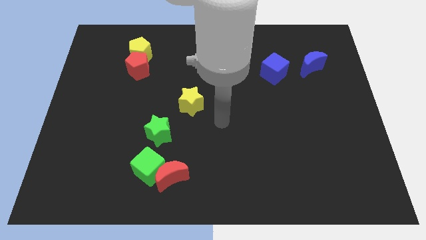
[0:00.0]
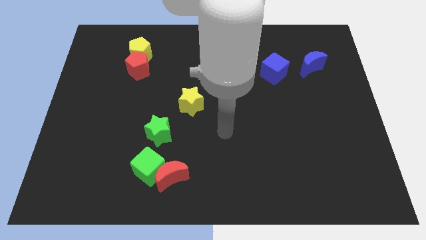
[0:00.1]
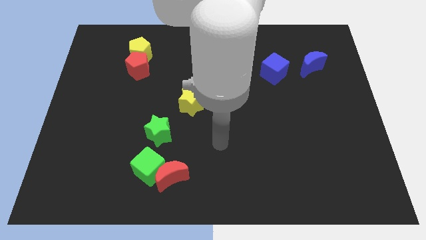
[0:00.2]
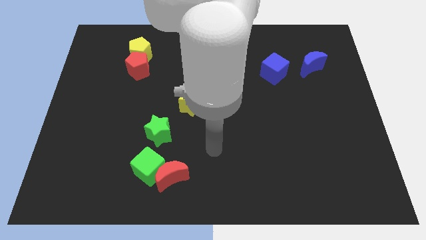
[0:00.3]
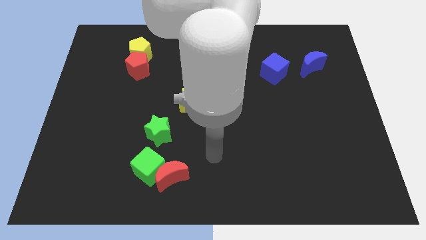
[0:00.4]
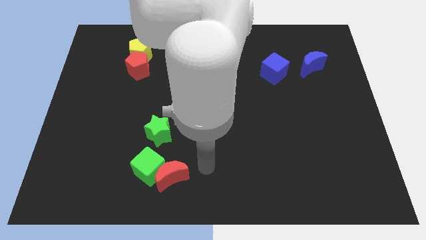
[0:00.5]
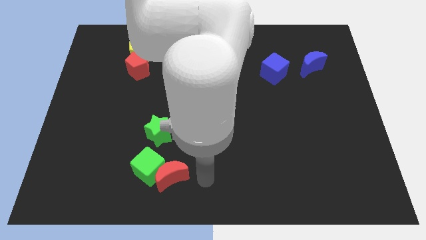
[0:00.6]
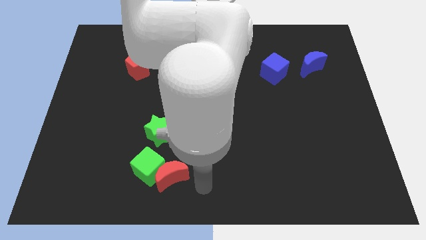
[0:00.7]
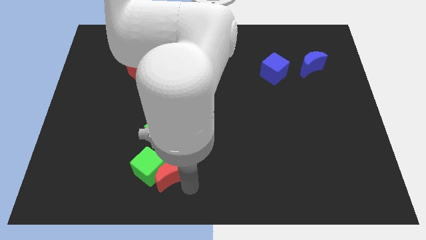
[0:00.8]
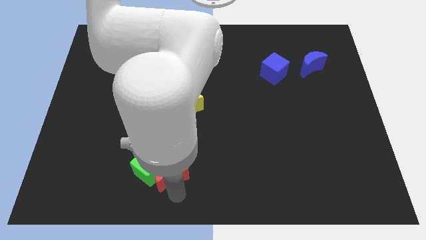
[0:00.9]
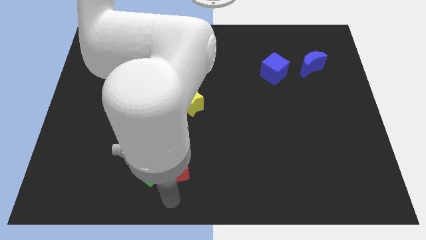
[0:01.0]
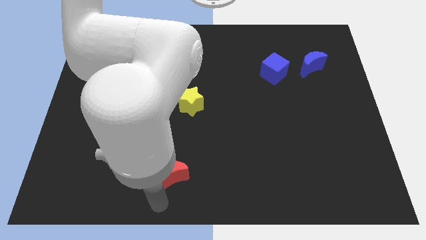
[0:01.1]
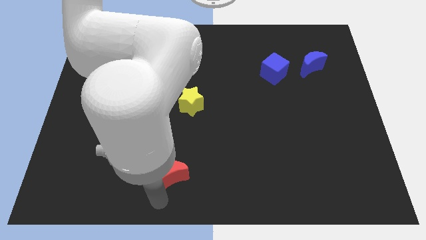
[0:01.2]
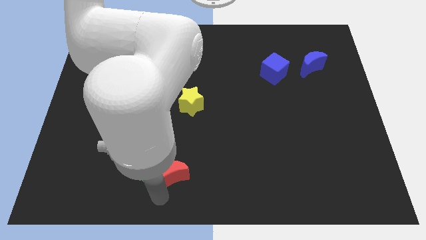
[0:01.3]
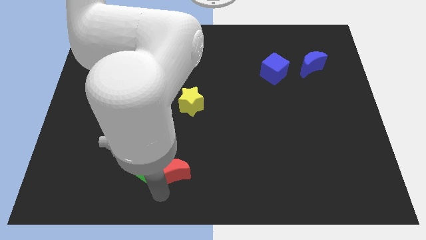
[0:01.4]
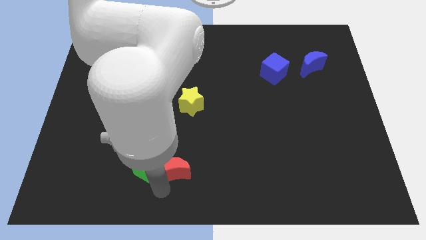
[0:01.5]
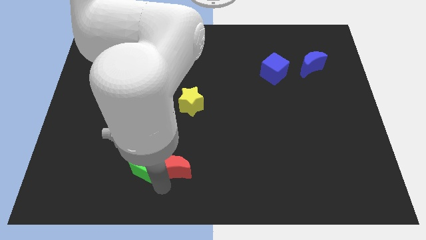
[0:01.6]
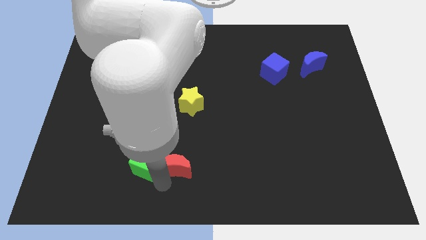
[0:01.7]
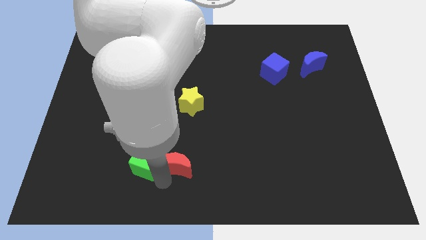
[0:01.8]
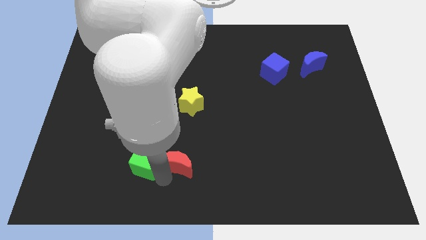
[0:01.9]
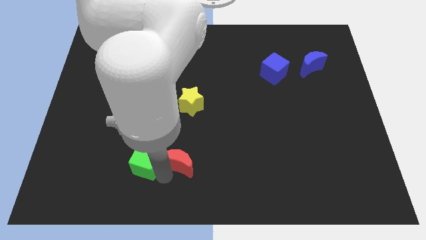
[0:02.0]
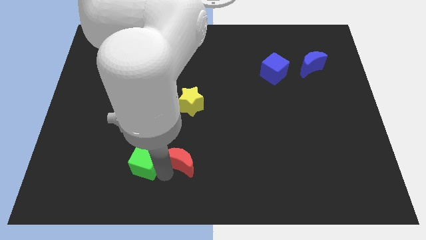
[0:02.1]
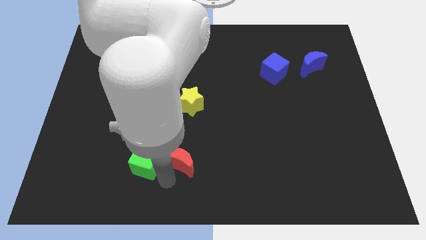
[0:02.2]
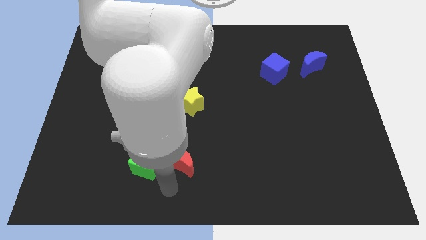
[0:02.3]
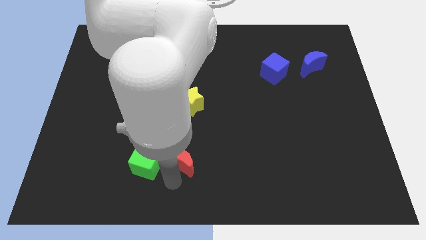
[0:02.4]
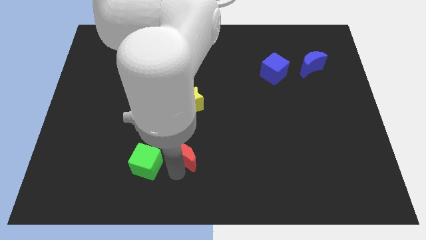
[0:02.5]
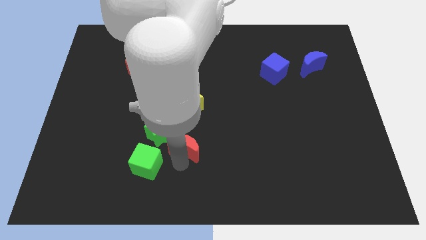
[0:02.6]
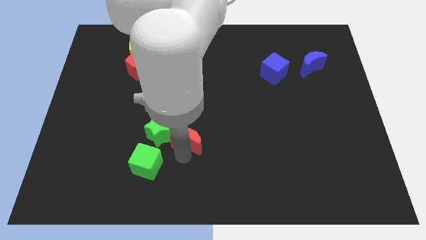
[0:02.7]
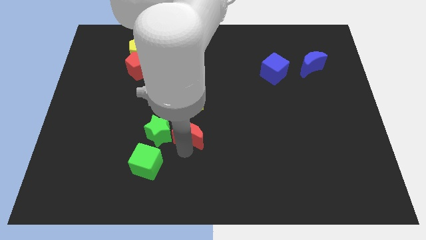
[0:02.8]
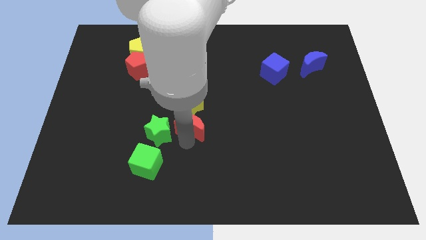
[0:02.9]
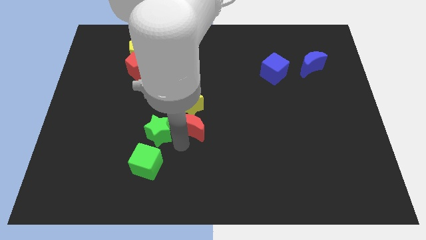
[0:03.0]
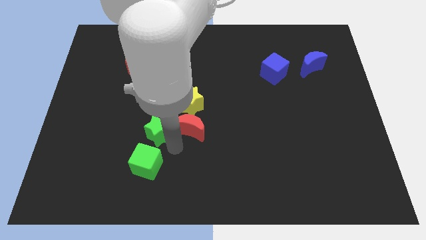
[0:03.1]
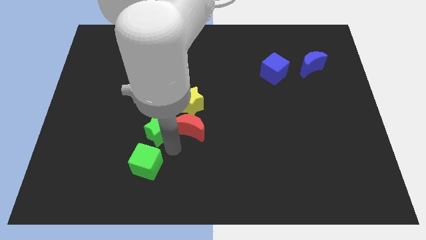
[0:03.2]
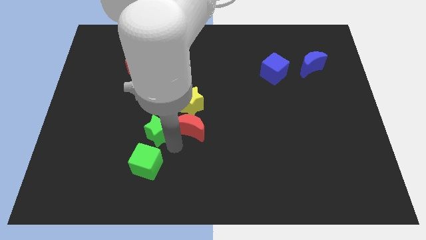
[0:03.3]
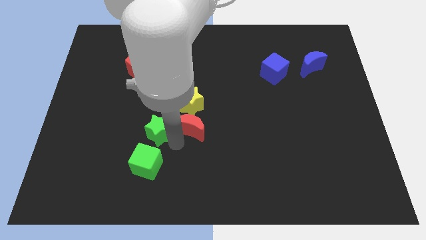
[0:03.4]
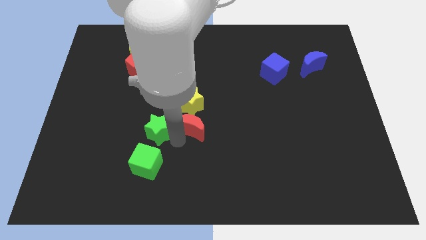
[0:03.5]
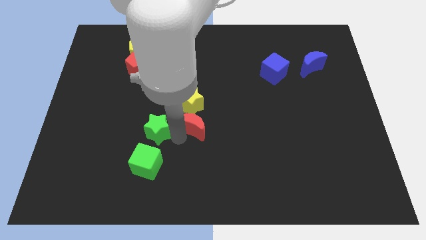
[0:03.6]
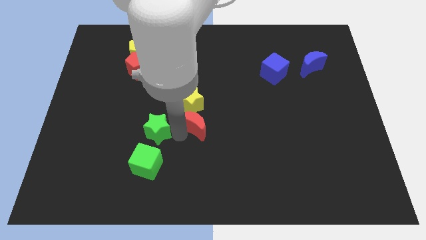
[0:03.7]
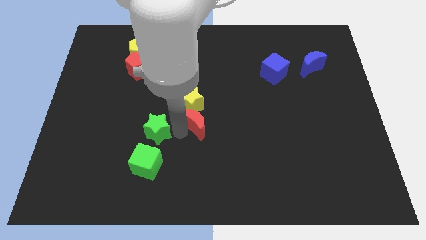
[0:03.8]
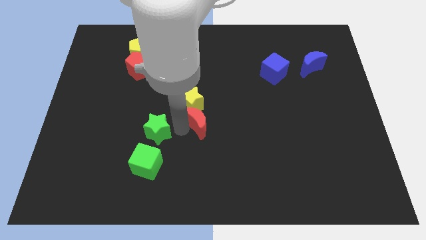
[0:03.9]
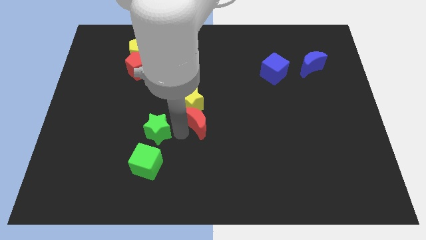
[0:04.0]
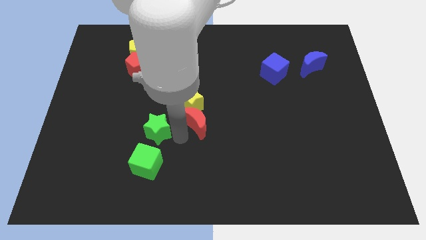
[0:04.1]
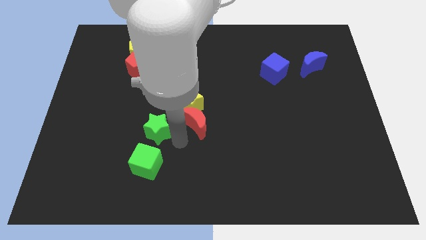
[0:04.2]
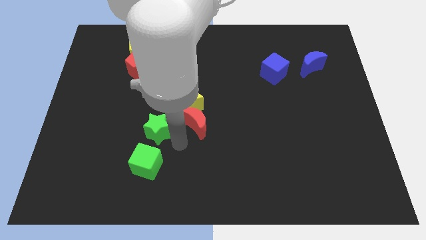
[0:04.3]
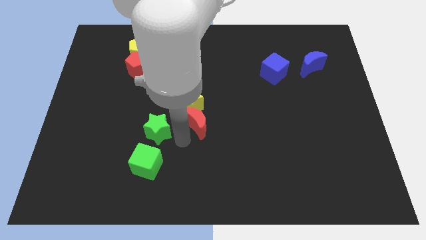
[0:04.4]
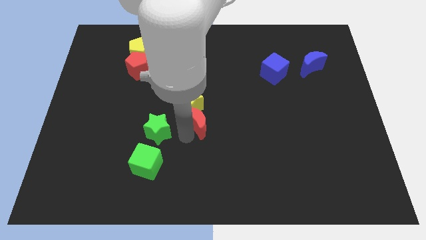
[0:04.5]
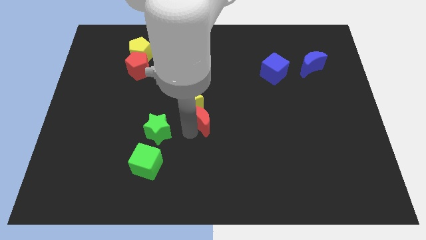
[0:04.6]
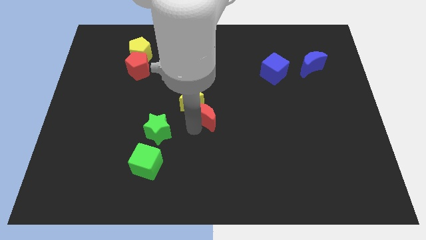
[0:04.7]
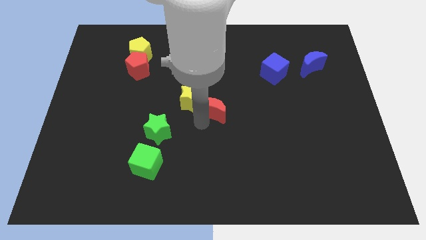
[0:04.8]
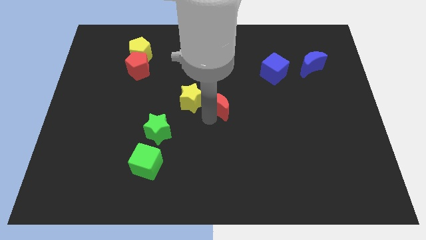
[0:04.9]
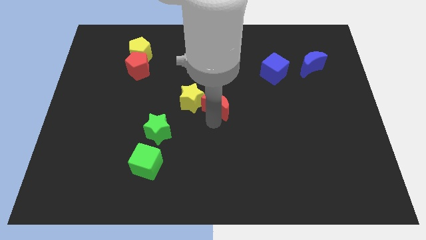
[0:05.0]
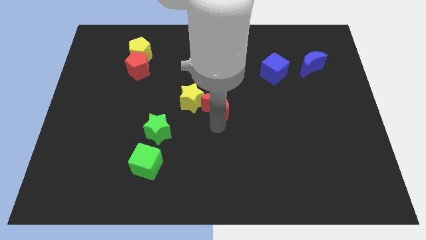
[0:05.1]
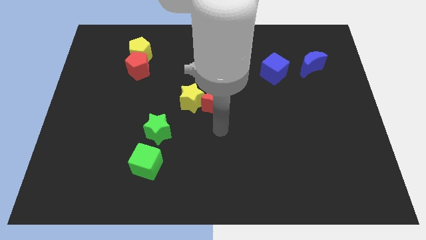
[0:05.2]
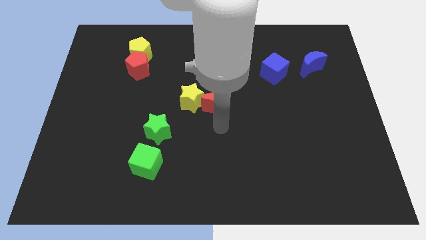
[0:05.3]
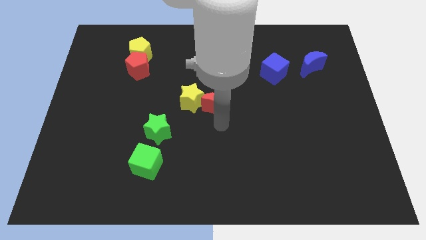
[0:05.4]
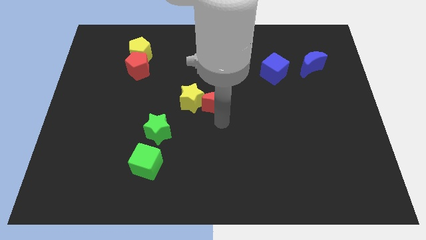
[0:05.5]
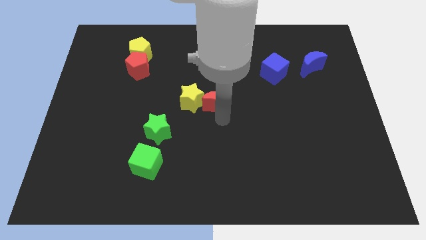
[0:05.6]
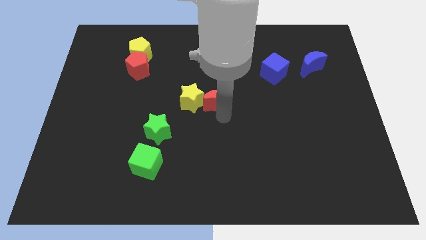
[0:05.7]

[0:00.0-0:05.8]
put the red moon diagonally up and to the right of the yellow star
